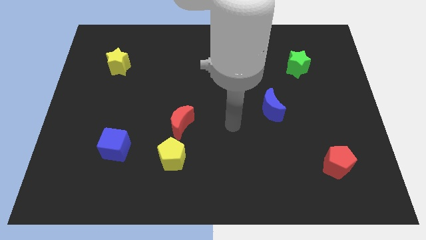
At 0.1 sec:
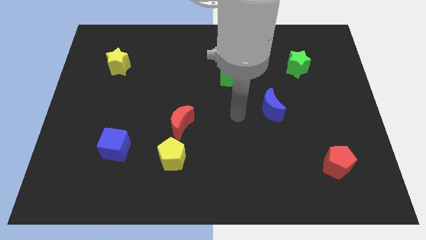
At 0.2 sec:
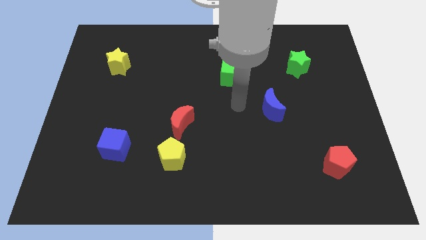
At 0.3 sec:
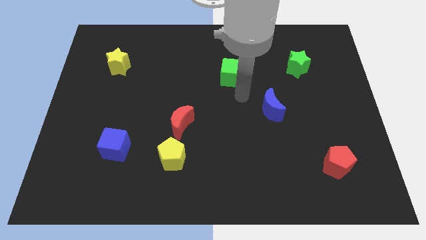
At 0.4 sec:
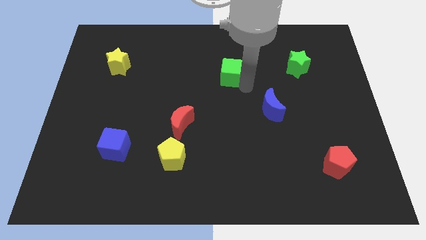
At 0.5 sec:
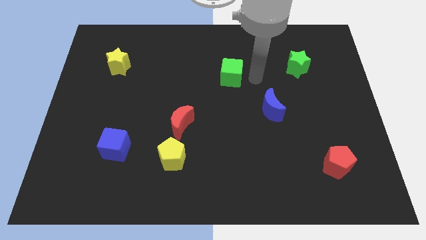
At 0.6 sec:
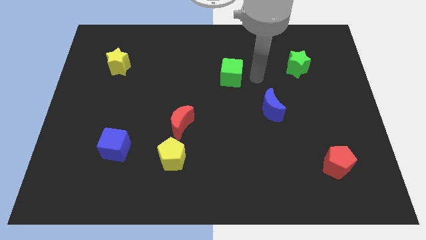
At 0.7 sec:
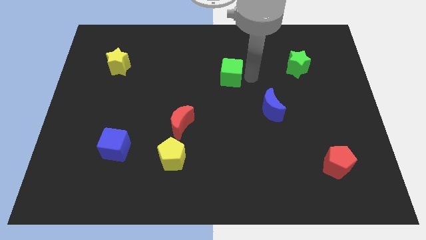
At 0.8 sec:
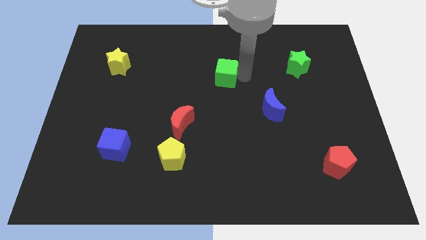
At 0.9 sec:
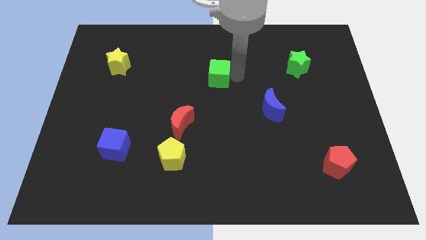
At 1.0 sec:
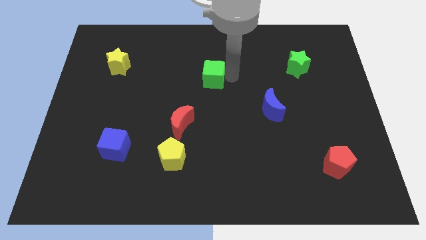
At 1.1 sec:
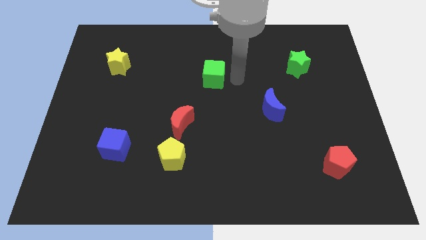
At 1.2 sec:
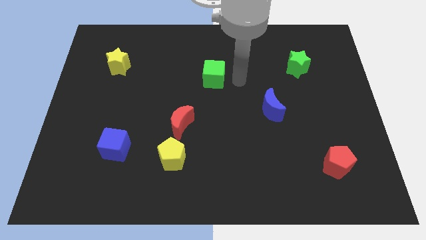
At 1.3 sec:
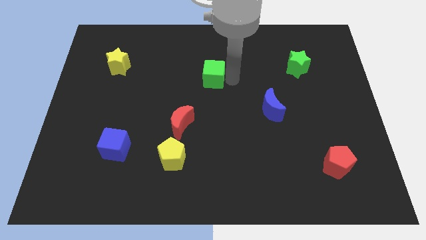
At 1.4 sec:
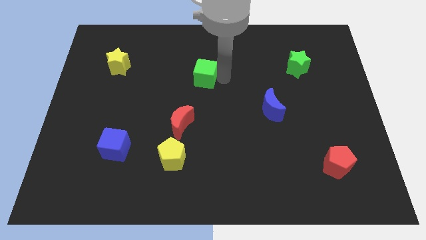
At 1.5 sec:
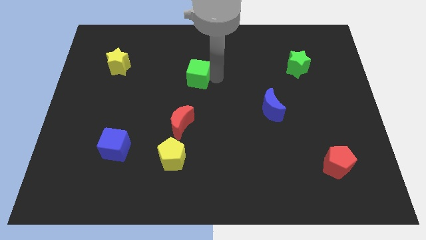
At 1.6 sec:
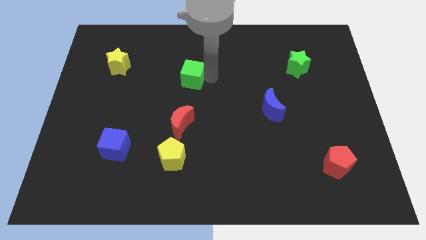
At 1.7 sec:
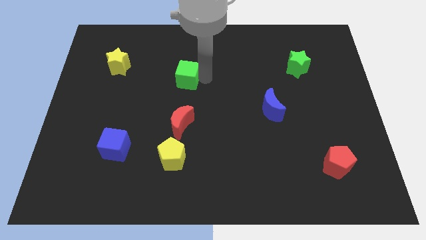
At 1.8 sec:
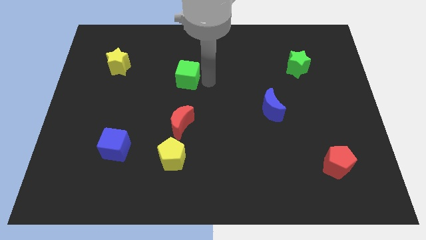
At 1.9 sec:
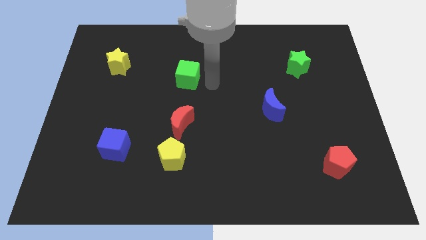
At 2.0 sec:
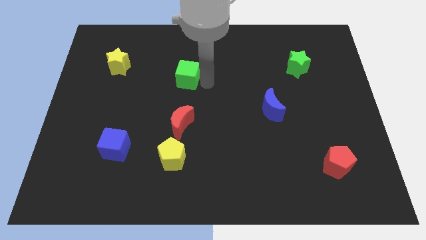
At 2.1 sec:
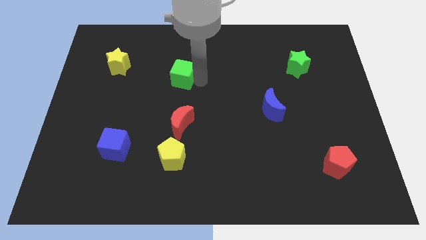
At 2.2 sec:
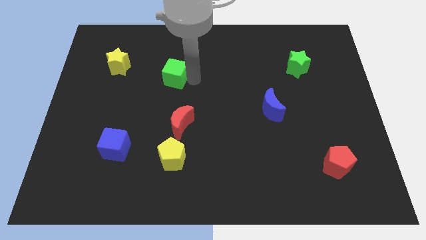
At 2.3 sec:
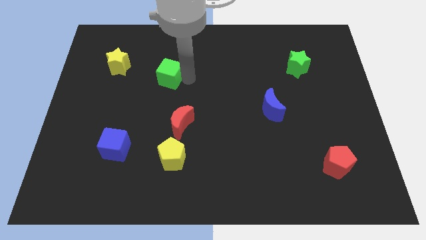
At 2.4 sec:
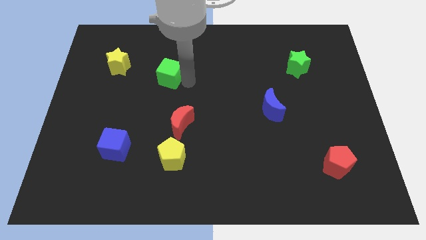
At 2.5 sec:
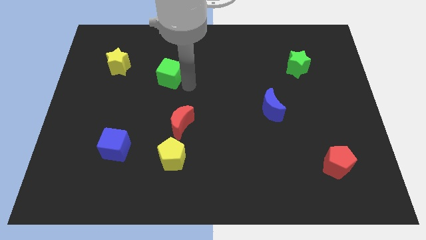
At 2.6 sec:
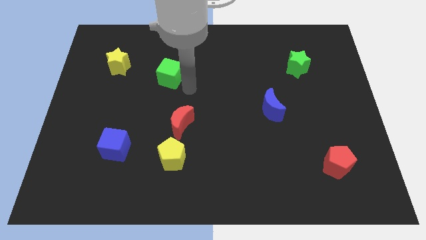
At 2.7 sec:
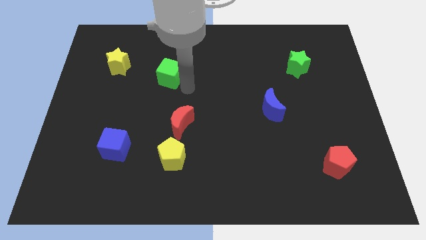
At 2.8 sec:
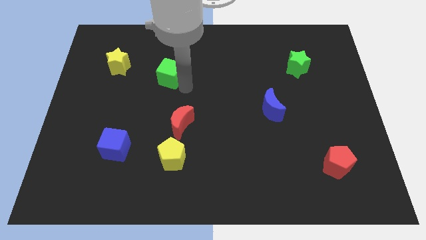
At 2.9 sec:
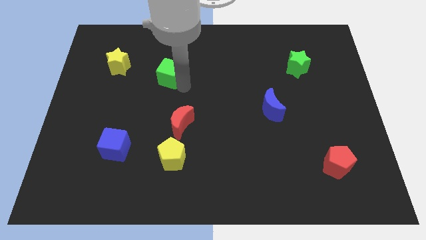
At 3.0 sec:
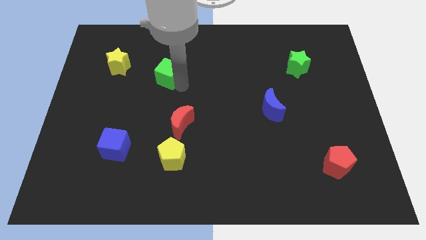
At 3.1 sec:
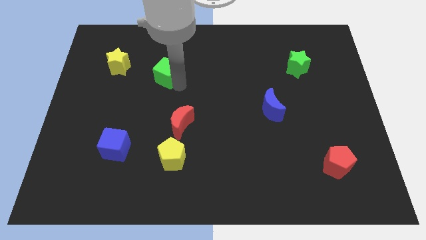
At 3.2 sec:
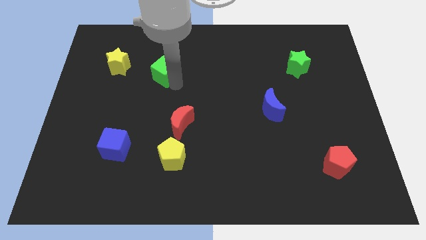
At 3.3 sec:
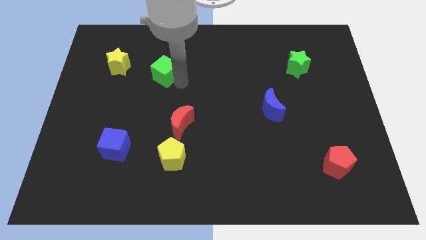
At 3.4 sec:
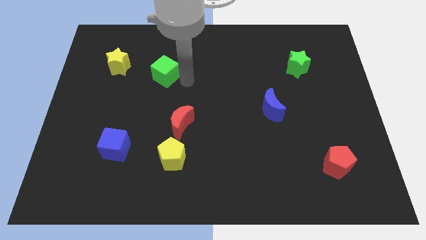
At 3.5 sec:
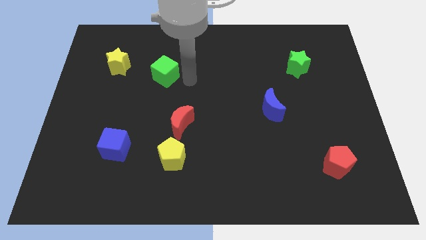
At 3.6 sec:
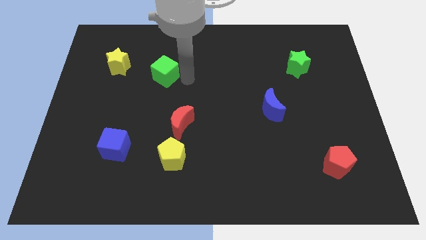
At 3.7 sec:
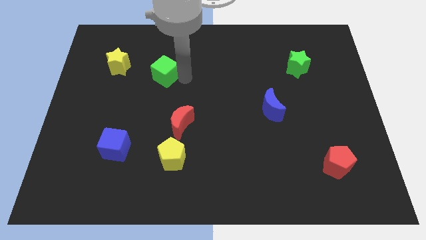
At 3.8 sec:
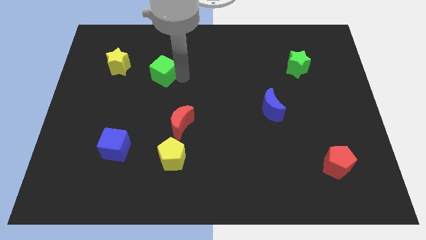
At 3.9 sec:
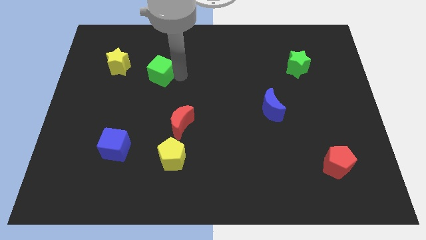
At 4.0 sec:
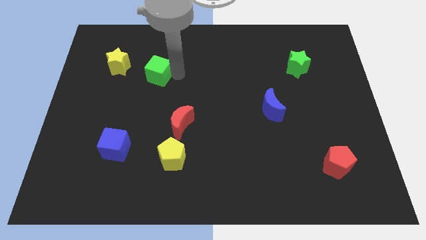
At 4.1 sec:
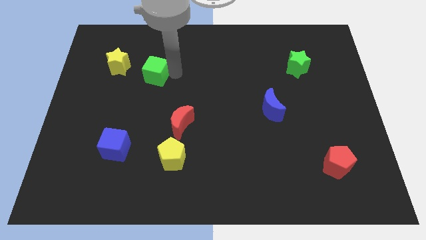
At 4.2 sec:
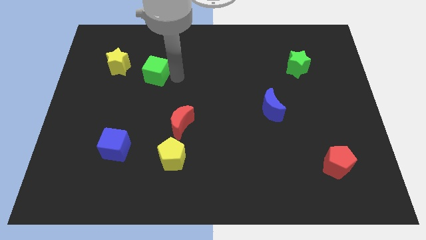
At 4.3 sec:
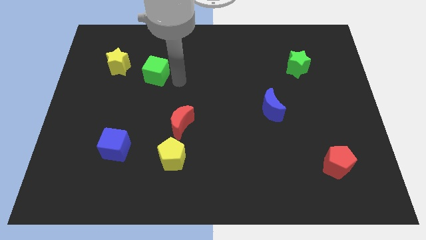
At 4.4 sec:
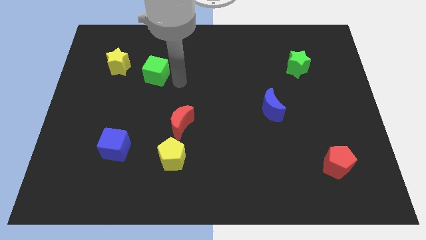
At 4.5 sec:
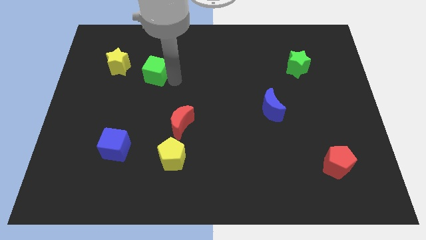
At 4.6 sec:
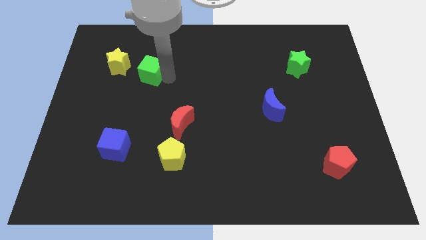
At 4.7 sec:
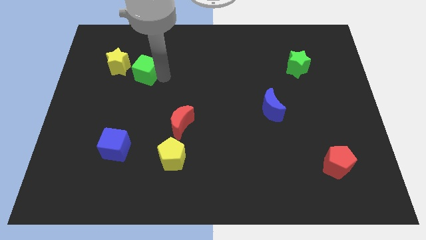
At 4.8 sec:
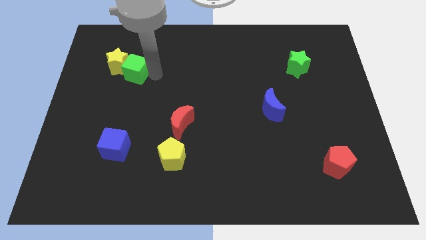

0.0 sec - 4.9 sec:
move the green cube towards the yellow star

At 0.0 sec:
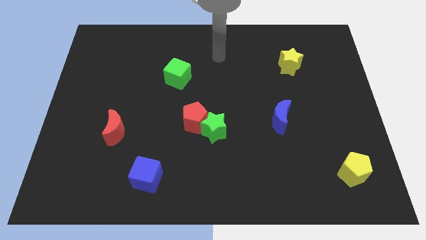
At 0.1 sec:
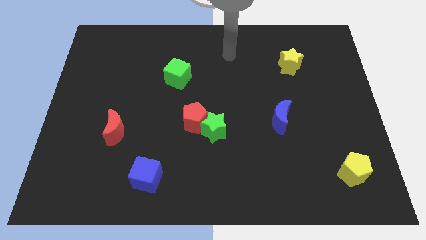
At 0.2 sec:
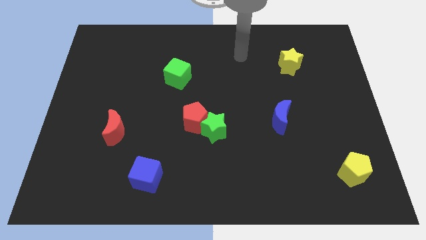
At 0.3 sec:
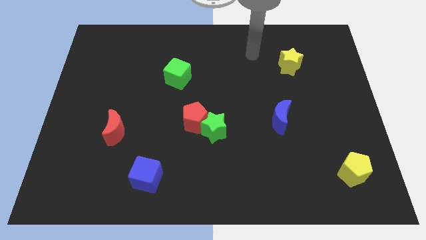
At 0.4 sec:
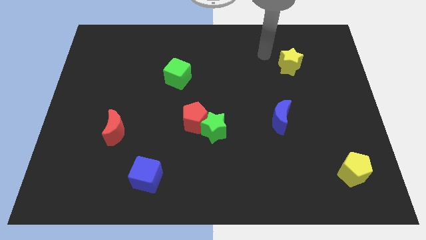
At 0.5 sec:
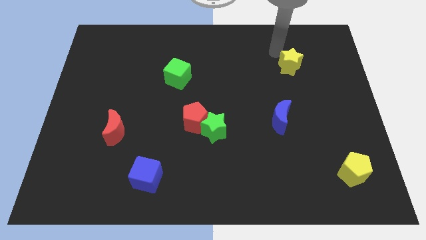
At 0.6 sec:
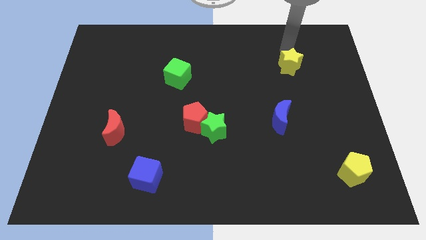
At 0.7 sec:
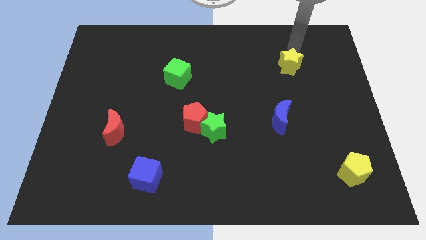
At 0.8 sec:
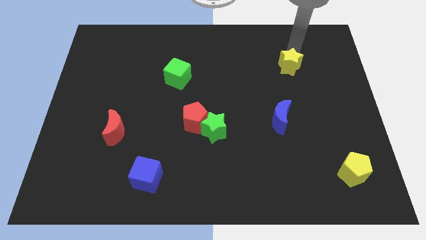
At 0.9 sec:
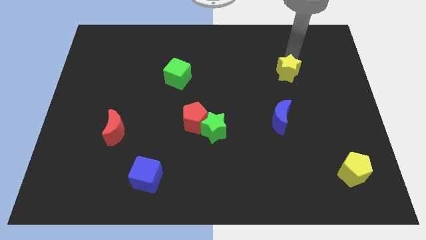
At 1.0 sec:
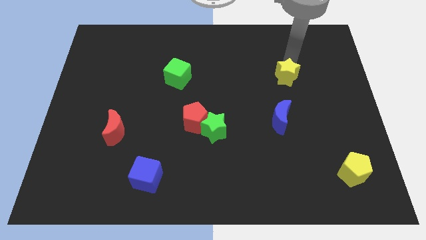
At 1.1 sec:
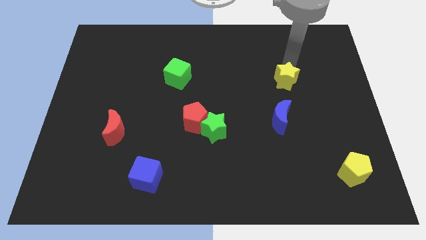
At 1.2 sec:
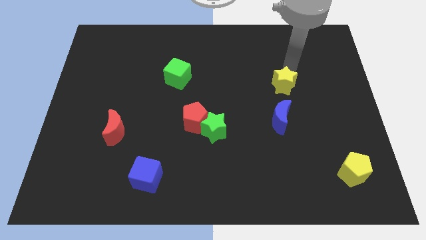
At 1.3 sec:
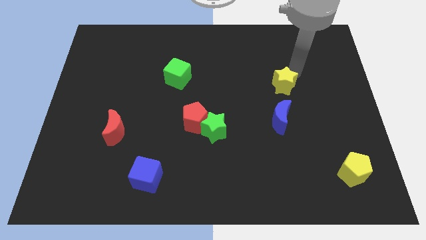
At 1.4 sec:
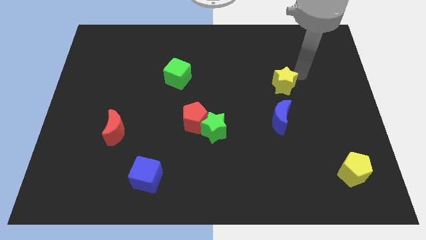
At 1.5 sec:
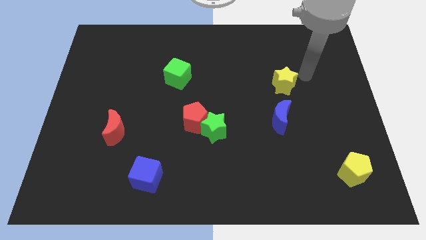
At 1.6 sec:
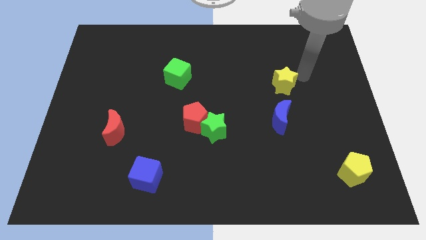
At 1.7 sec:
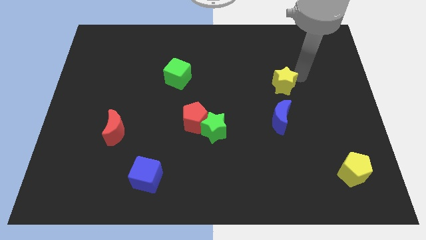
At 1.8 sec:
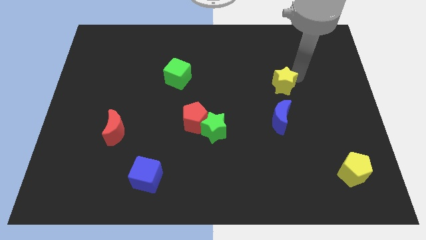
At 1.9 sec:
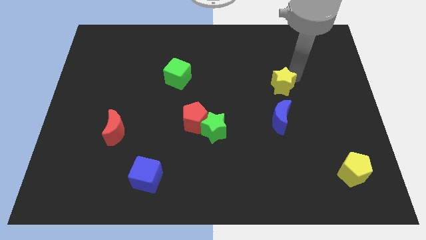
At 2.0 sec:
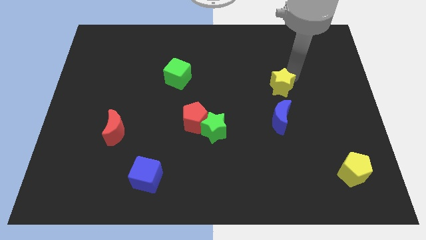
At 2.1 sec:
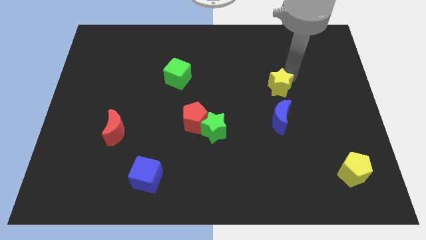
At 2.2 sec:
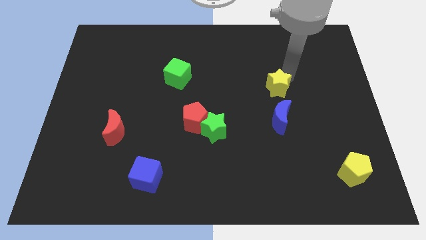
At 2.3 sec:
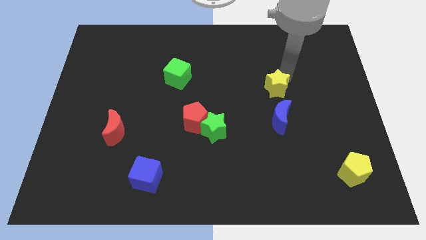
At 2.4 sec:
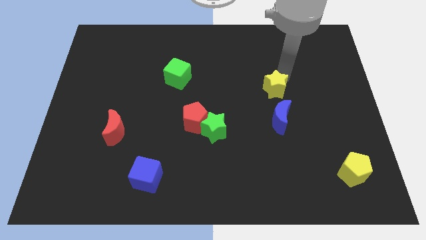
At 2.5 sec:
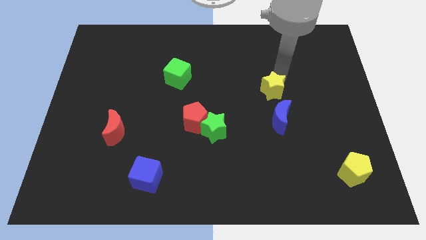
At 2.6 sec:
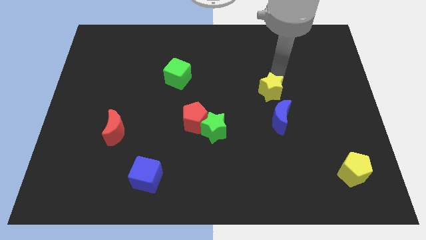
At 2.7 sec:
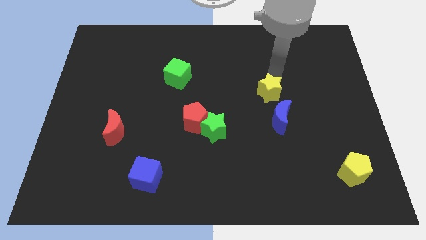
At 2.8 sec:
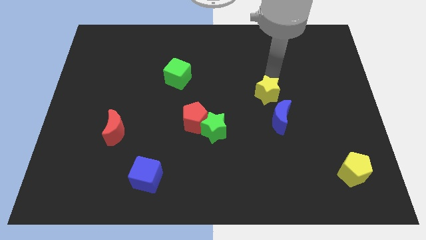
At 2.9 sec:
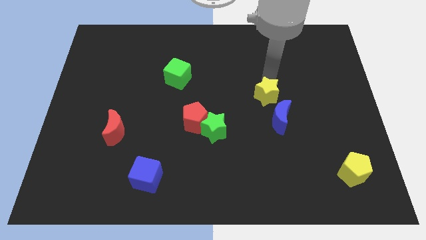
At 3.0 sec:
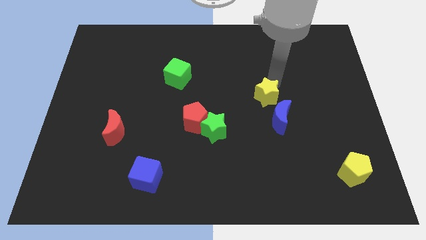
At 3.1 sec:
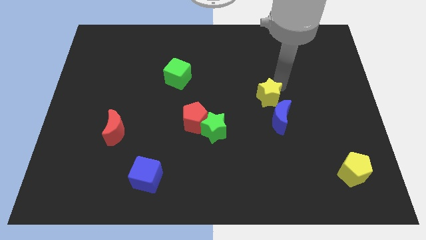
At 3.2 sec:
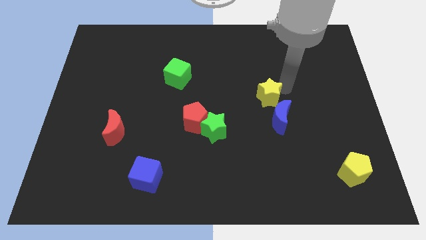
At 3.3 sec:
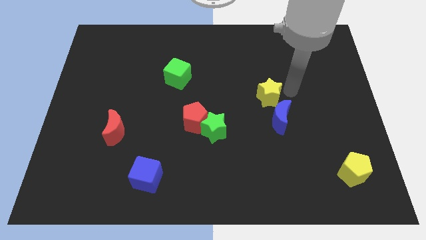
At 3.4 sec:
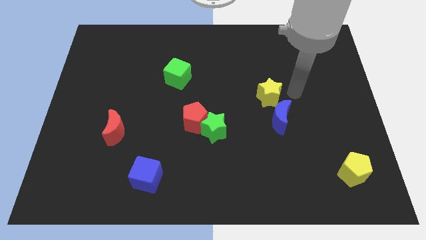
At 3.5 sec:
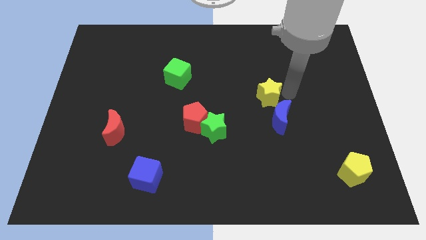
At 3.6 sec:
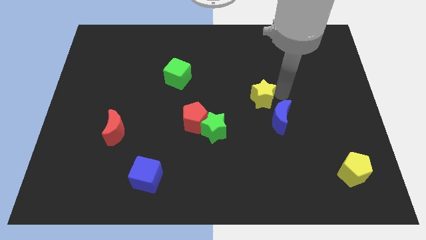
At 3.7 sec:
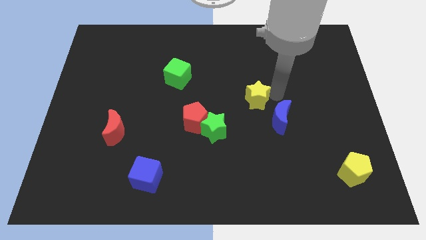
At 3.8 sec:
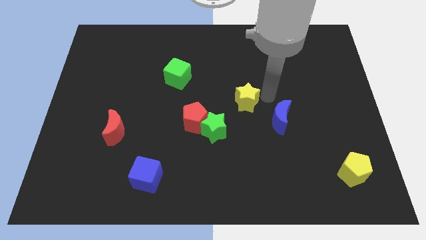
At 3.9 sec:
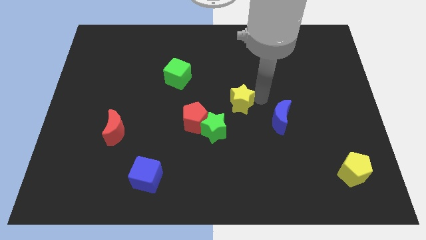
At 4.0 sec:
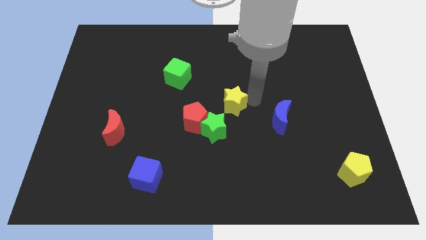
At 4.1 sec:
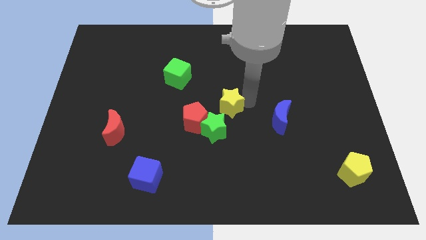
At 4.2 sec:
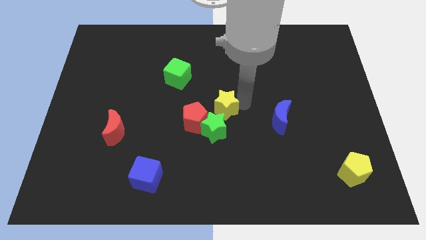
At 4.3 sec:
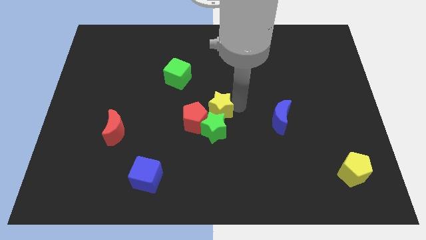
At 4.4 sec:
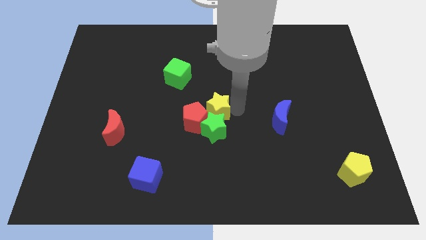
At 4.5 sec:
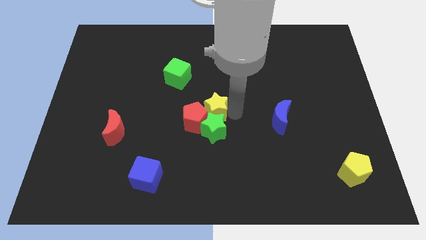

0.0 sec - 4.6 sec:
move the yellow star towards the red pentagon
